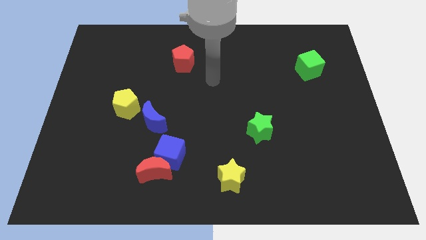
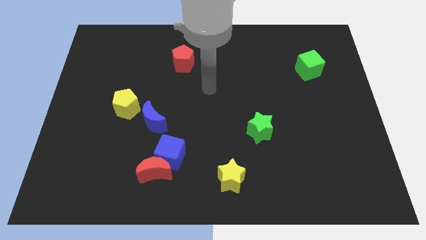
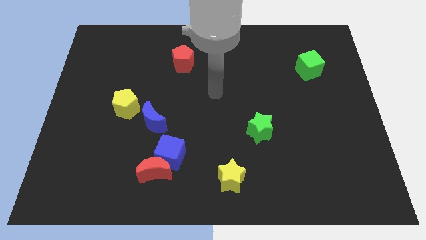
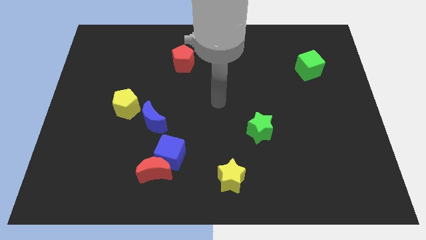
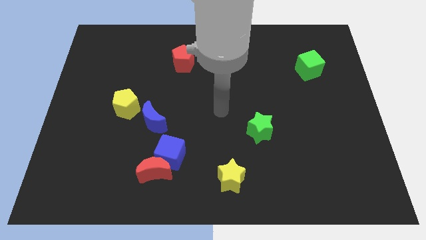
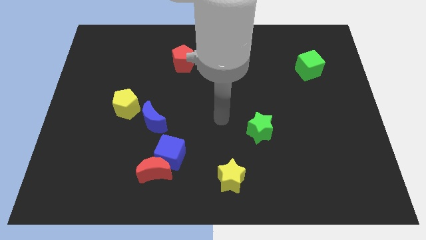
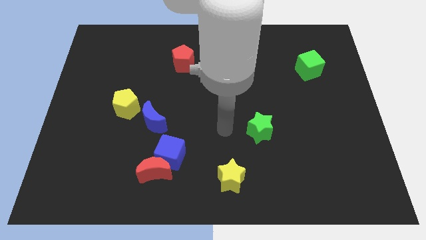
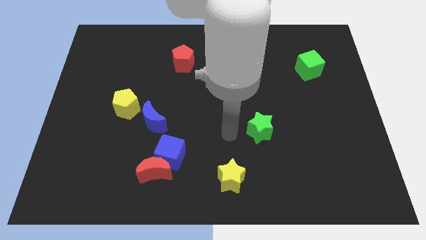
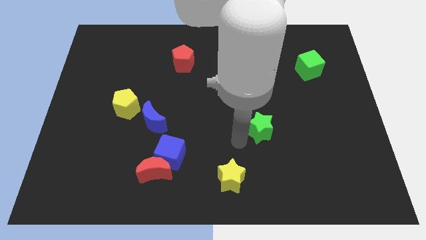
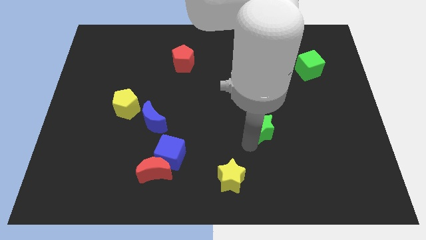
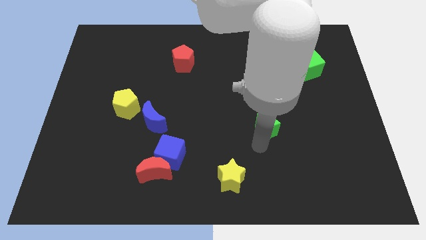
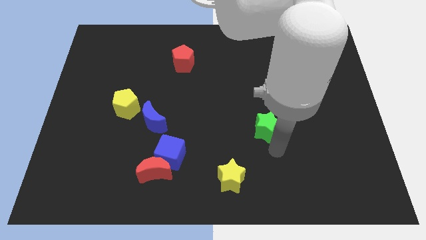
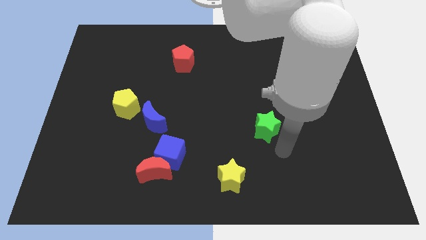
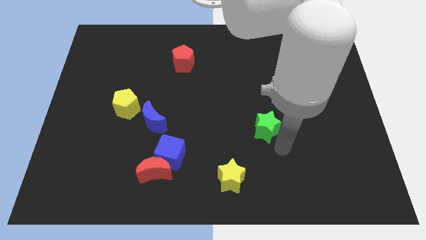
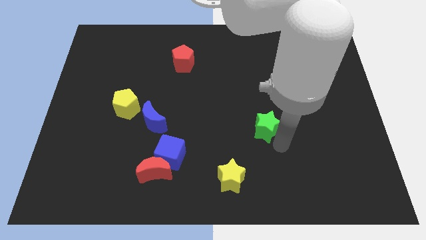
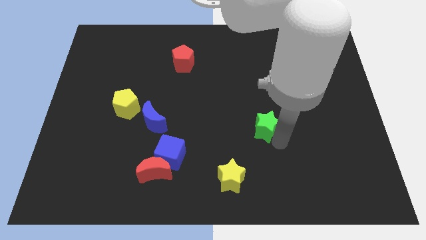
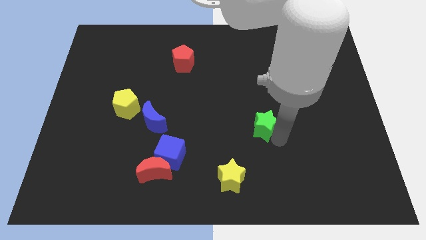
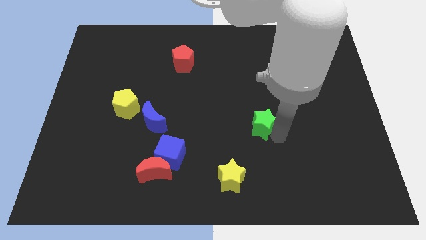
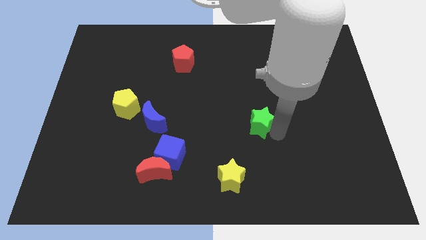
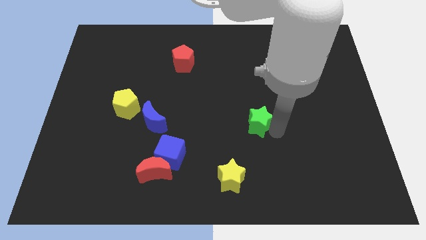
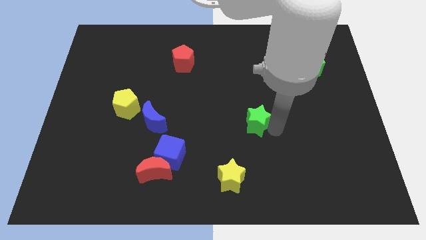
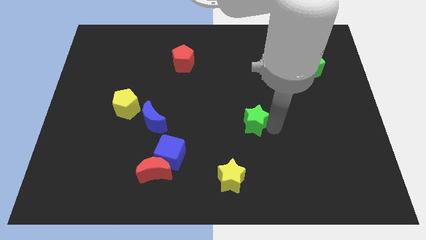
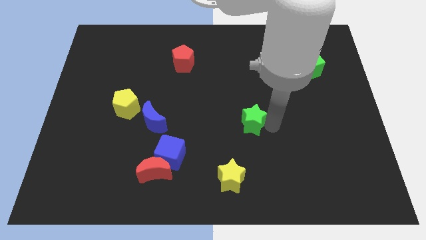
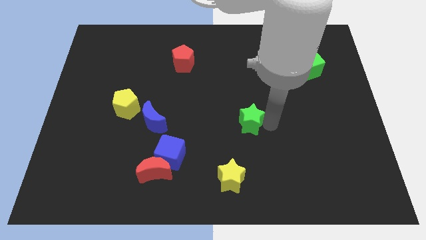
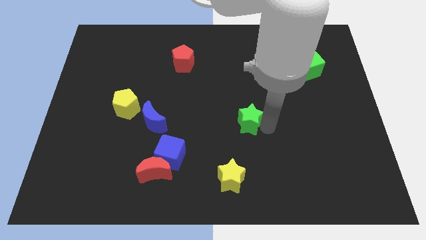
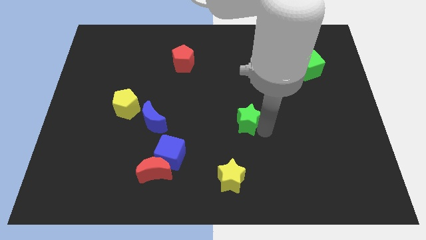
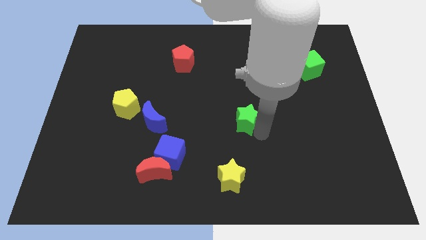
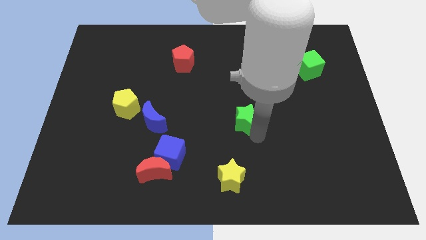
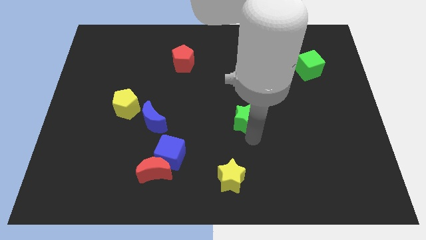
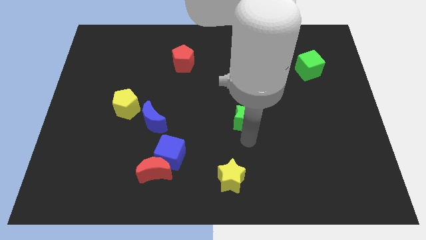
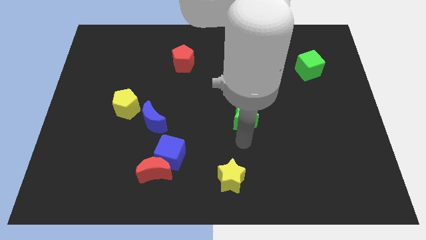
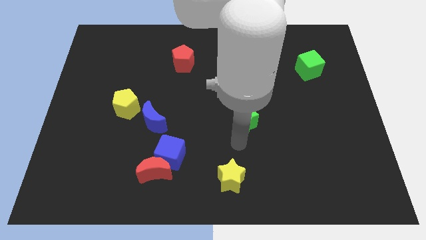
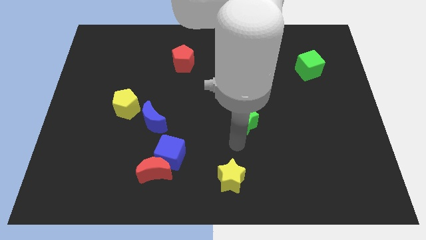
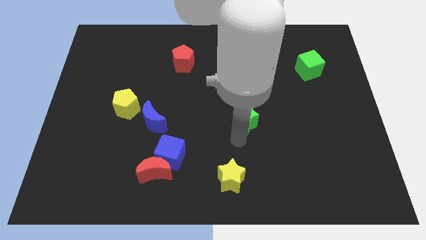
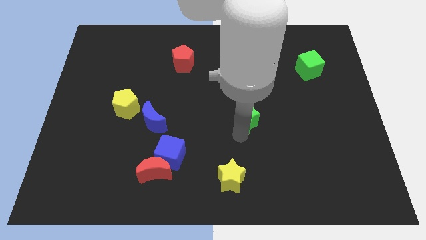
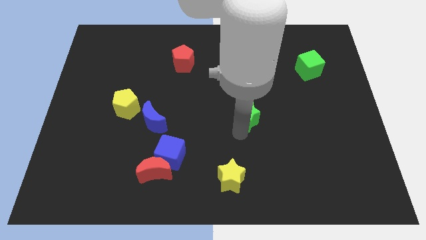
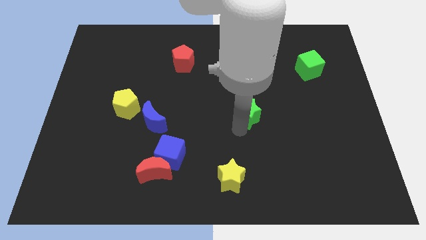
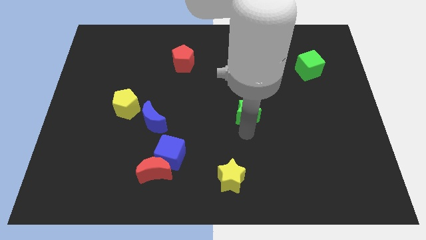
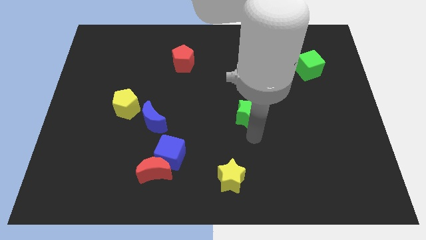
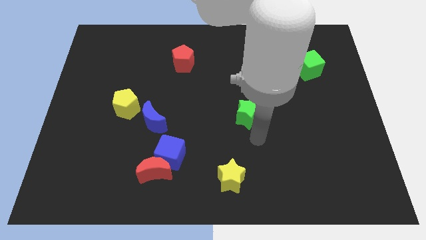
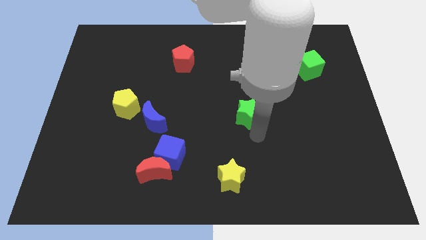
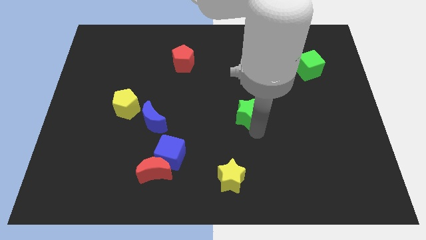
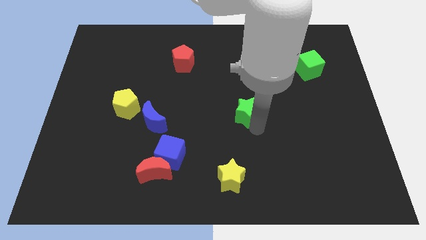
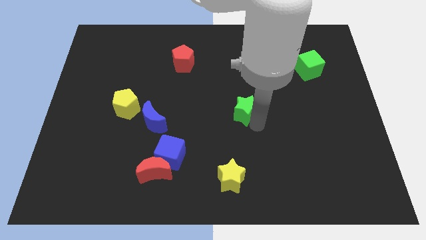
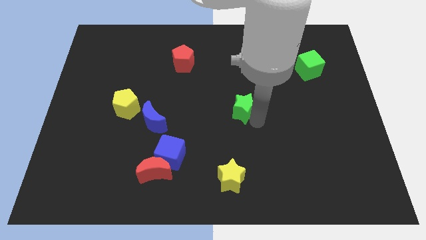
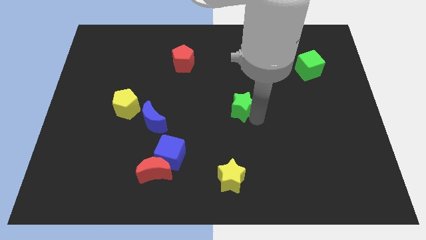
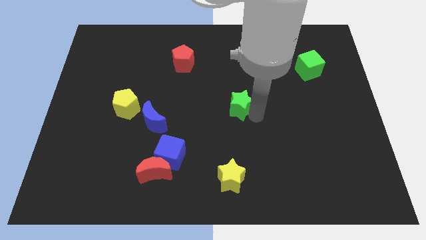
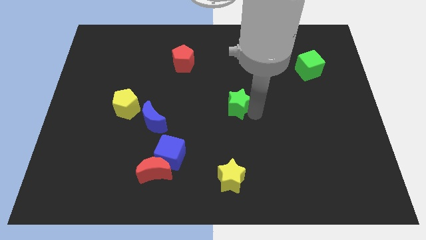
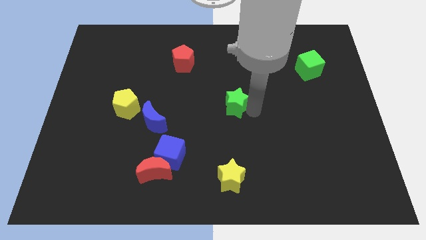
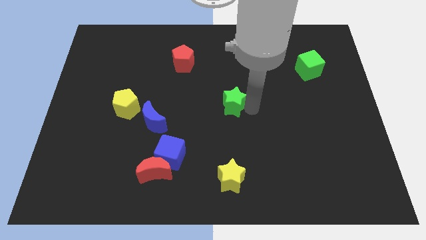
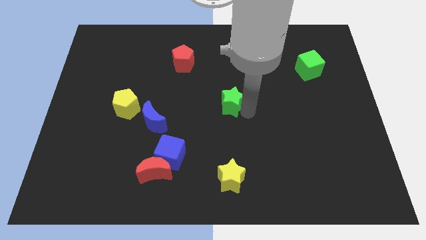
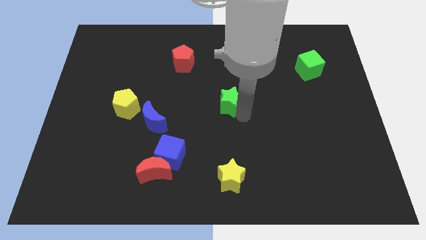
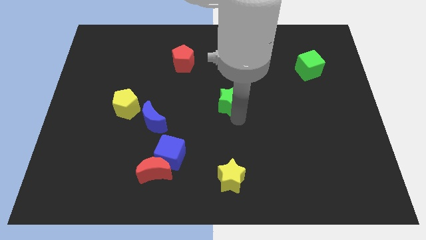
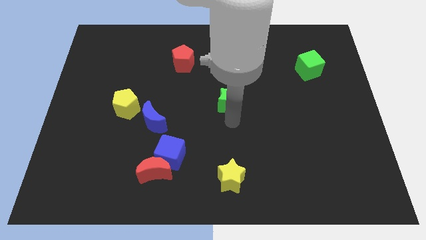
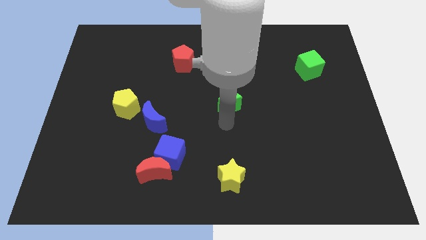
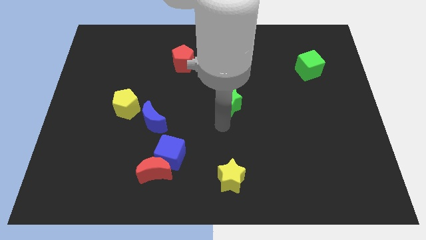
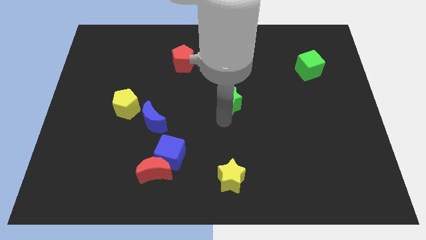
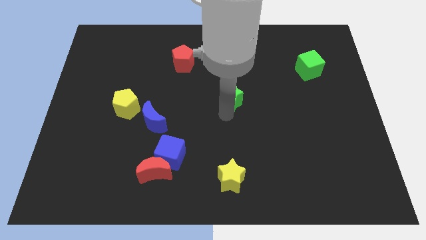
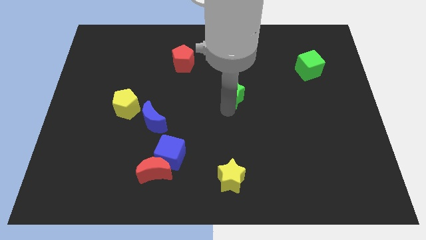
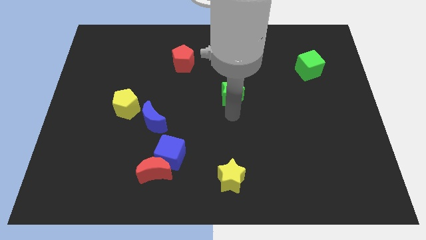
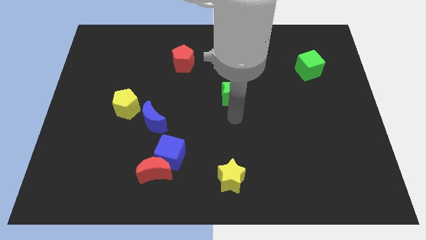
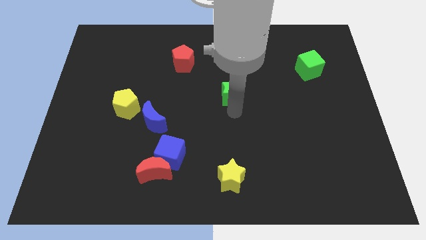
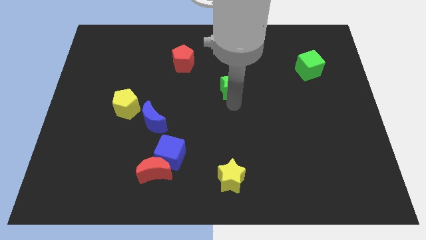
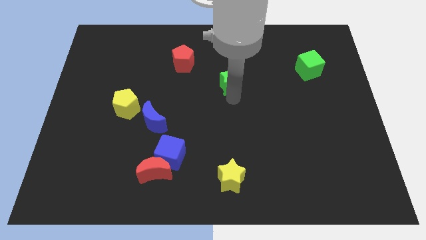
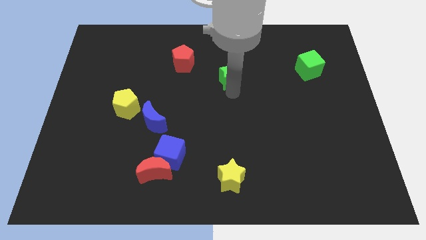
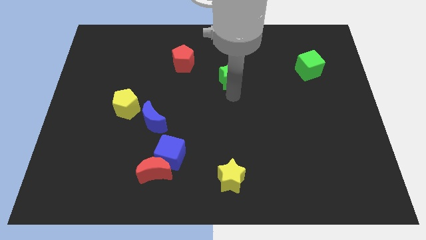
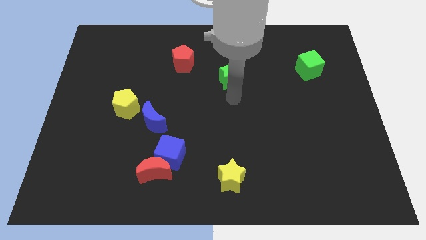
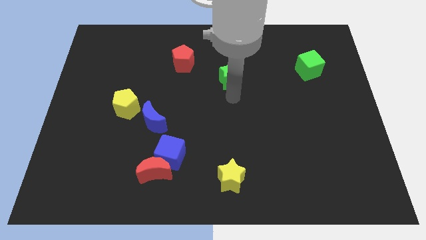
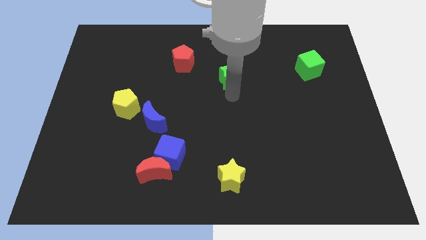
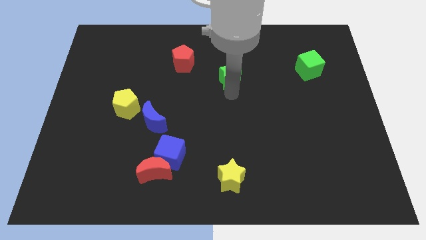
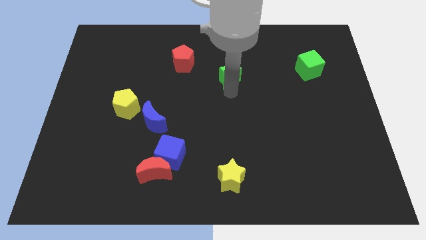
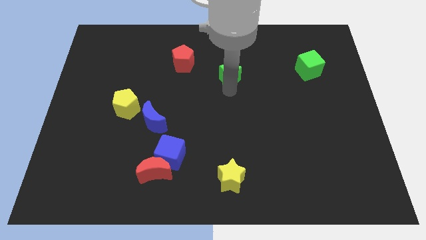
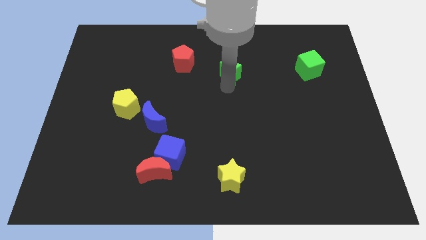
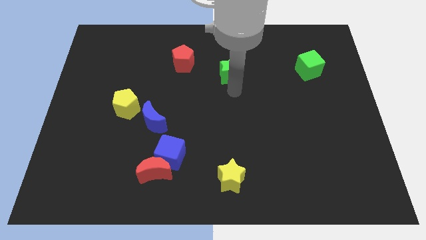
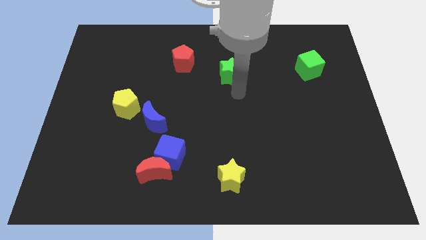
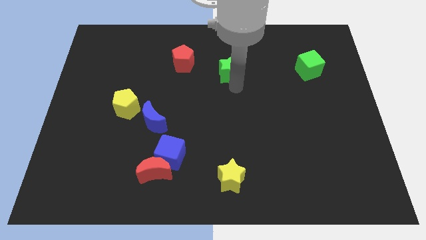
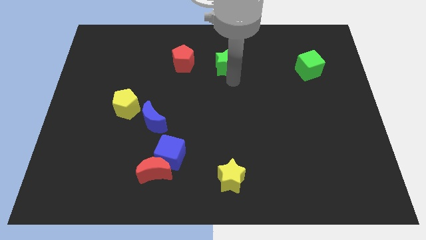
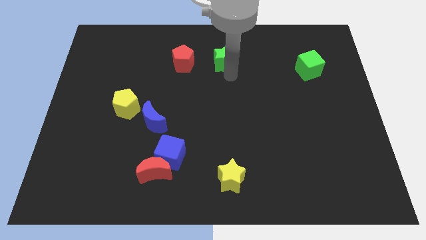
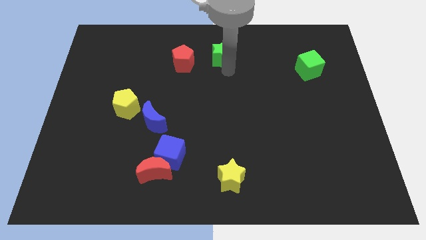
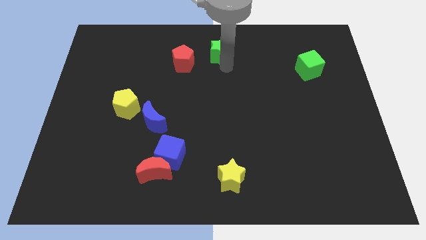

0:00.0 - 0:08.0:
move the green star to the towards your base
